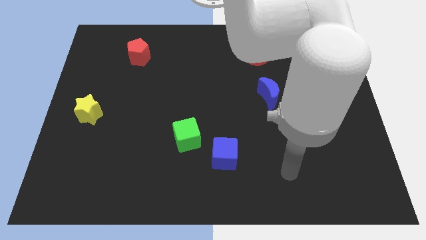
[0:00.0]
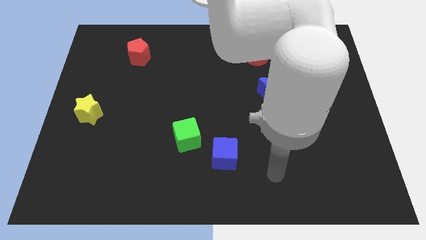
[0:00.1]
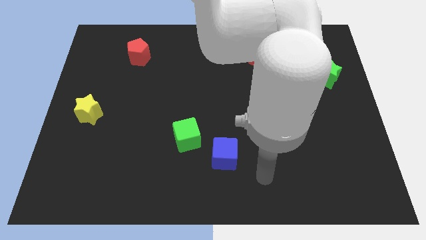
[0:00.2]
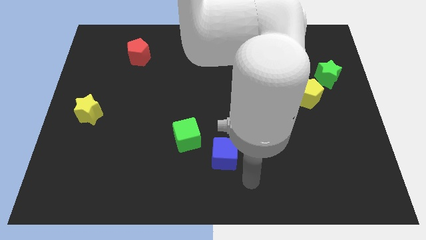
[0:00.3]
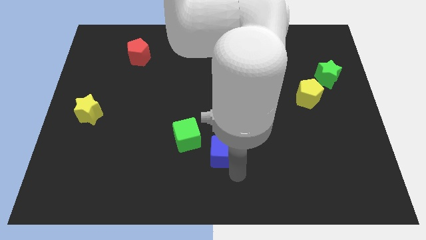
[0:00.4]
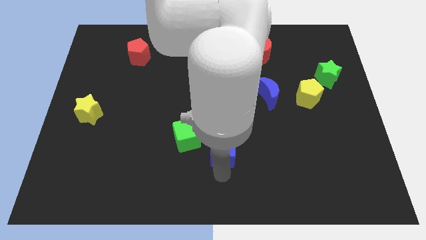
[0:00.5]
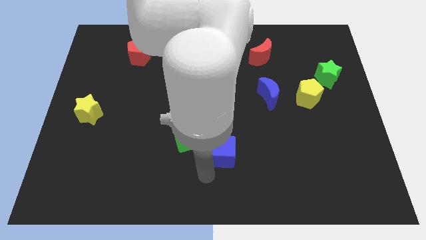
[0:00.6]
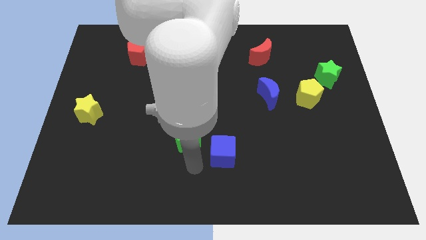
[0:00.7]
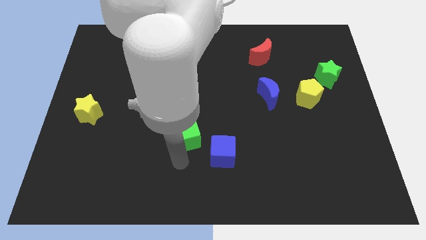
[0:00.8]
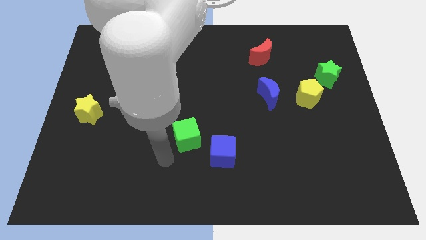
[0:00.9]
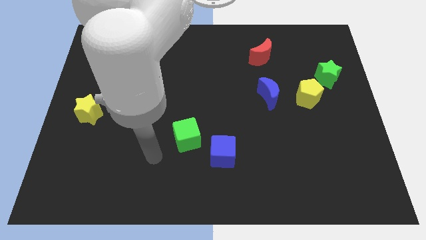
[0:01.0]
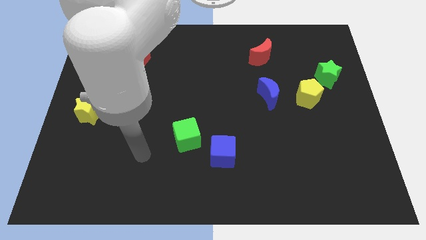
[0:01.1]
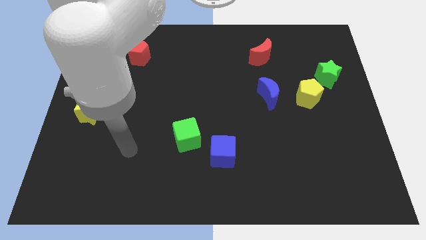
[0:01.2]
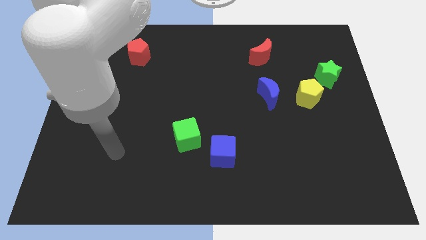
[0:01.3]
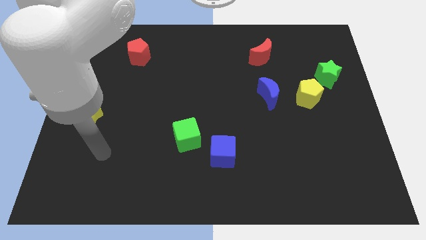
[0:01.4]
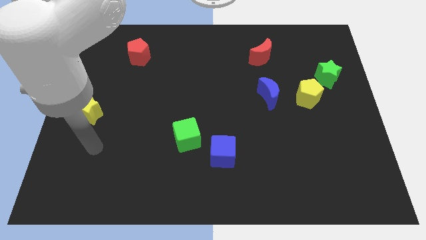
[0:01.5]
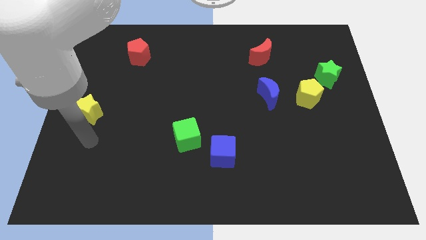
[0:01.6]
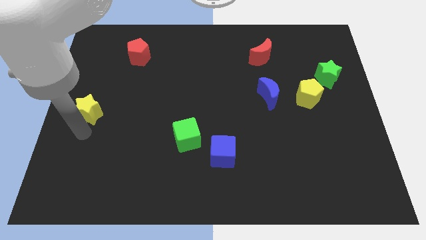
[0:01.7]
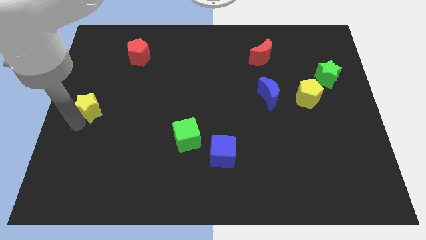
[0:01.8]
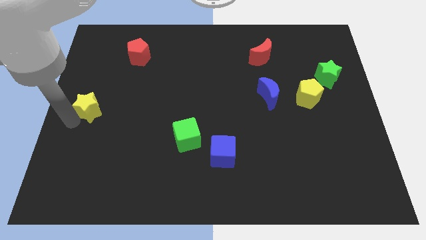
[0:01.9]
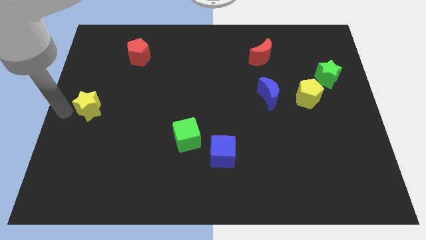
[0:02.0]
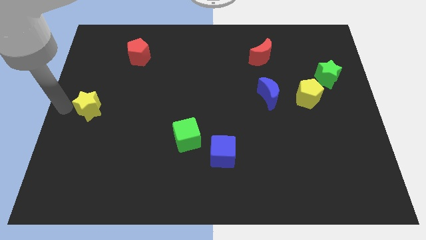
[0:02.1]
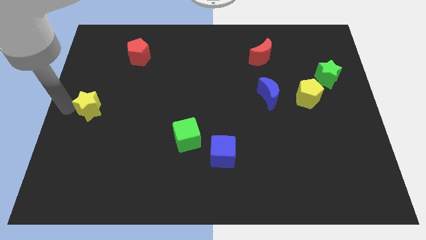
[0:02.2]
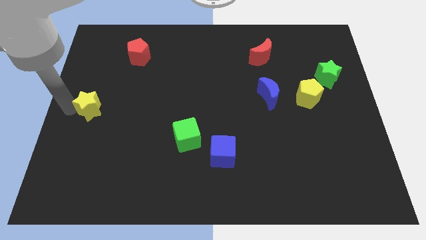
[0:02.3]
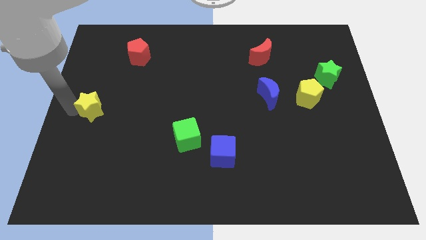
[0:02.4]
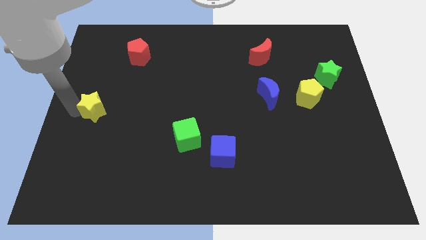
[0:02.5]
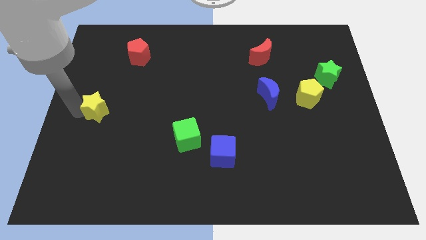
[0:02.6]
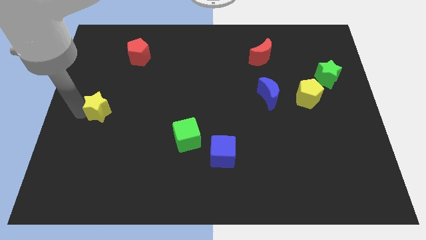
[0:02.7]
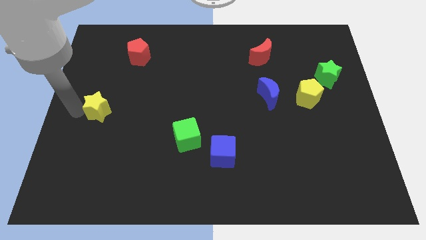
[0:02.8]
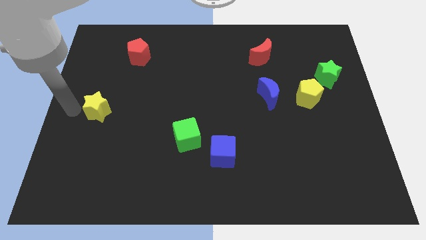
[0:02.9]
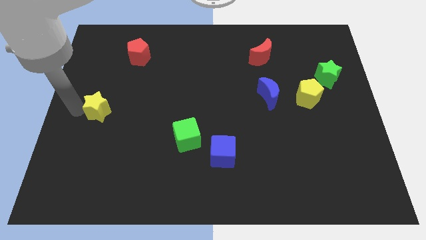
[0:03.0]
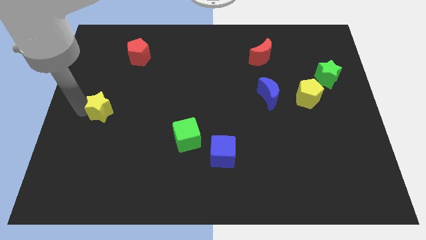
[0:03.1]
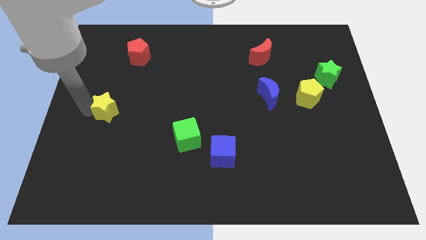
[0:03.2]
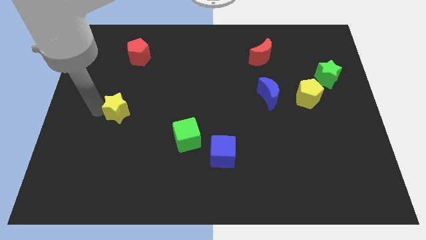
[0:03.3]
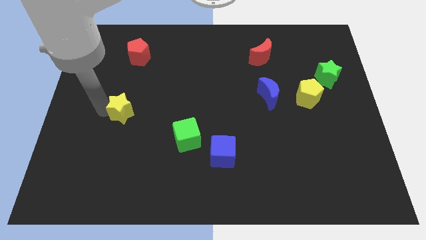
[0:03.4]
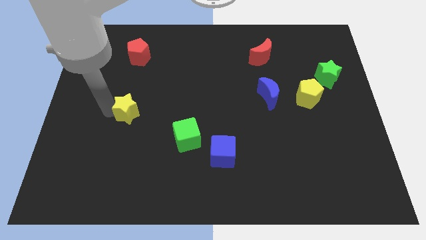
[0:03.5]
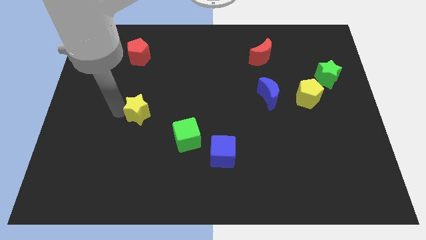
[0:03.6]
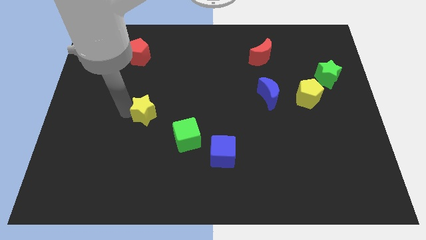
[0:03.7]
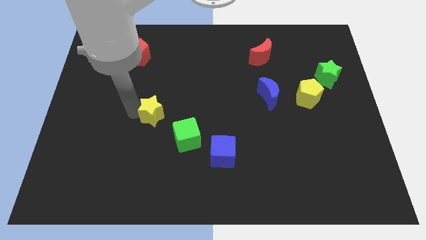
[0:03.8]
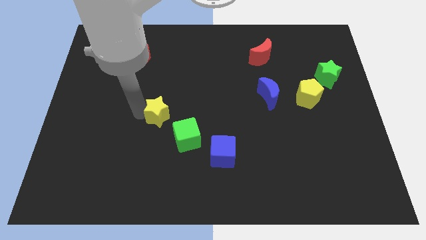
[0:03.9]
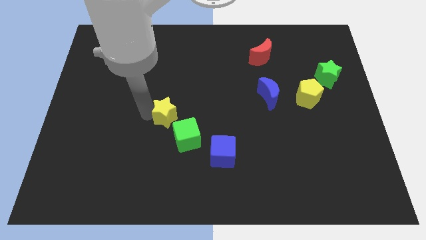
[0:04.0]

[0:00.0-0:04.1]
move the yellow star to the center

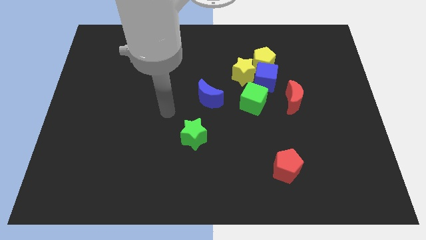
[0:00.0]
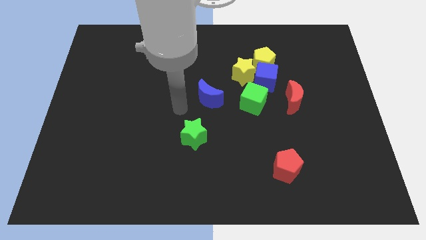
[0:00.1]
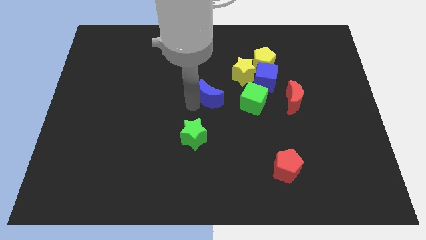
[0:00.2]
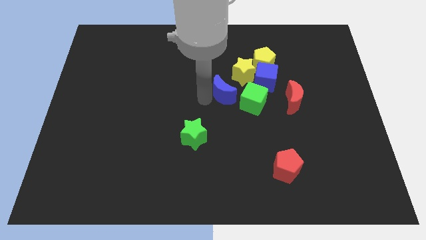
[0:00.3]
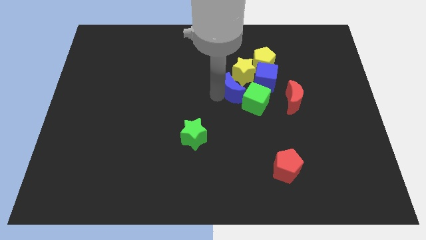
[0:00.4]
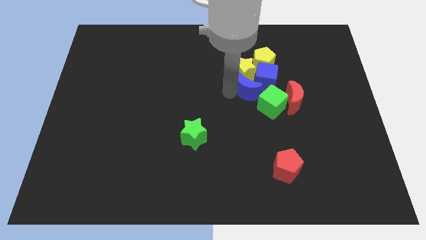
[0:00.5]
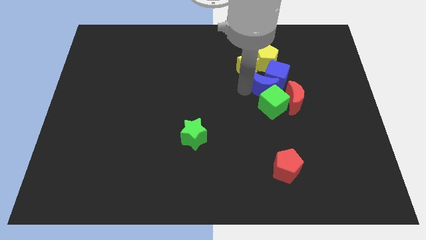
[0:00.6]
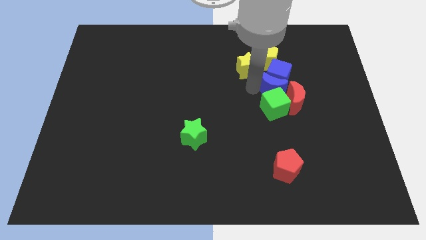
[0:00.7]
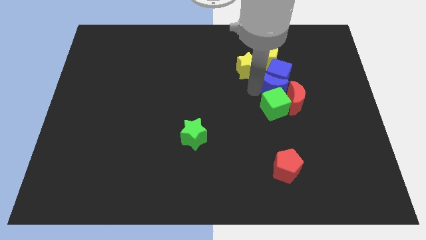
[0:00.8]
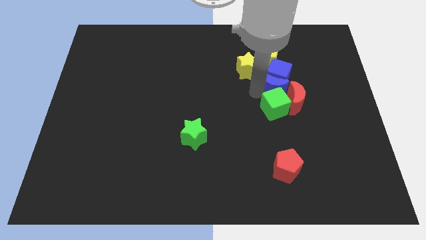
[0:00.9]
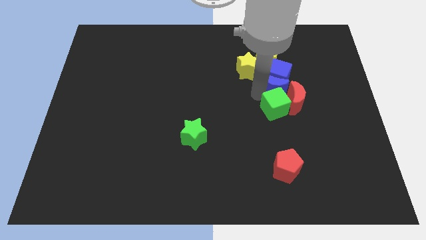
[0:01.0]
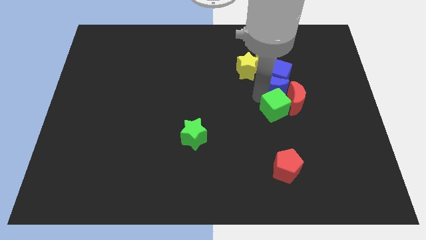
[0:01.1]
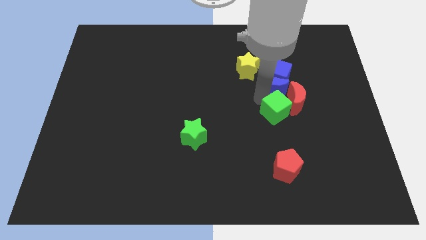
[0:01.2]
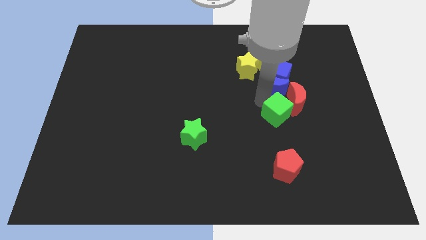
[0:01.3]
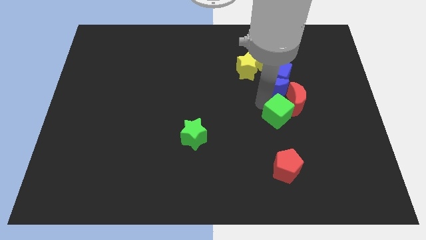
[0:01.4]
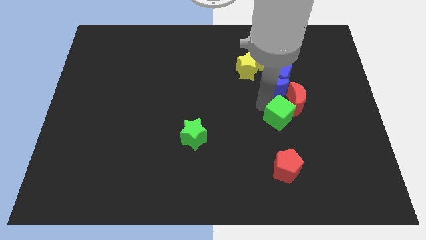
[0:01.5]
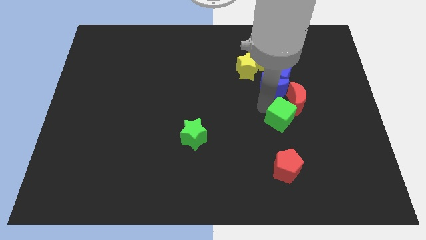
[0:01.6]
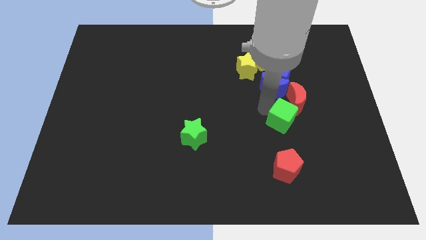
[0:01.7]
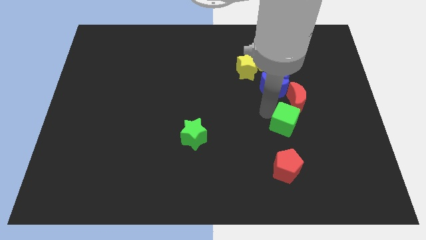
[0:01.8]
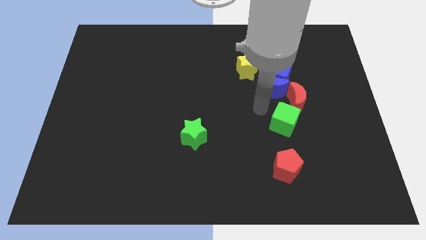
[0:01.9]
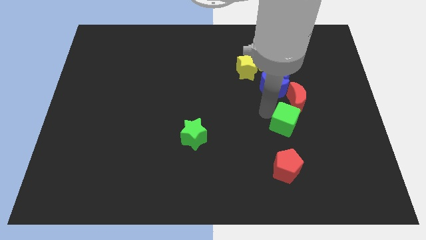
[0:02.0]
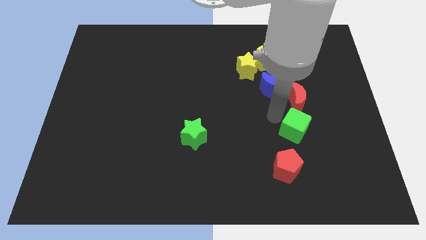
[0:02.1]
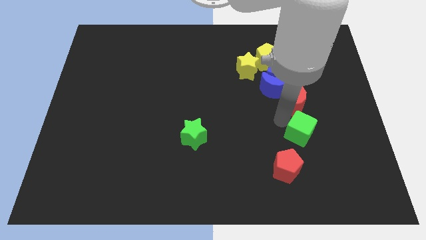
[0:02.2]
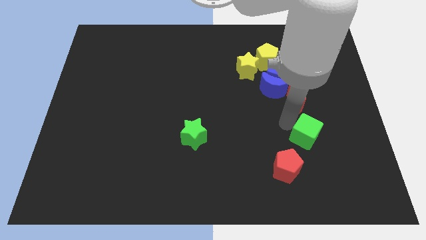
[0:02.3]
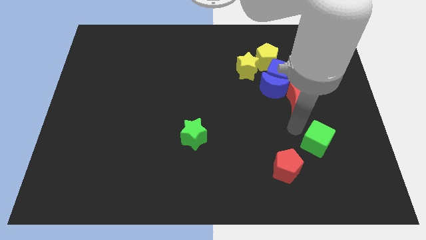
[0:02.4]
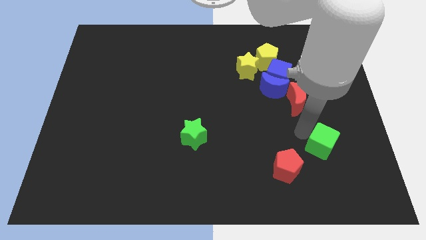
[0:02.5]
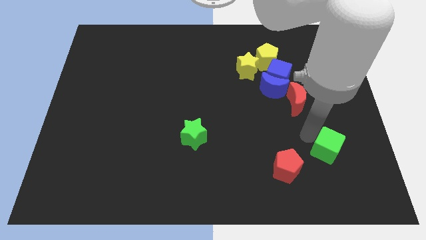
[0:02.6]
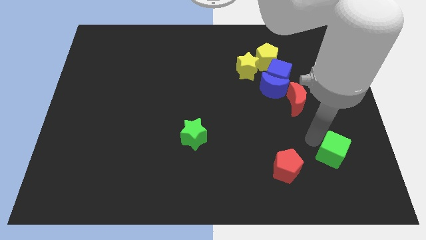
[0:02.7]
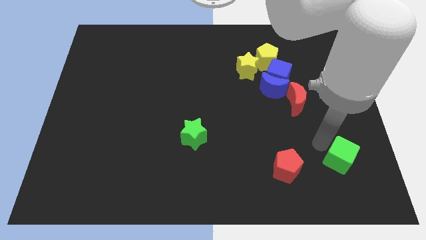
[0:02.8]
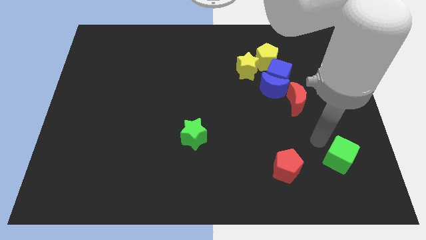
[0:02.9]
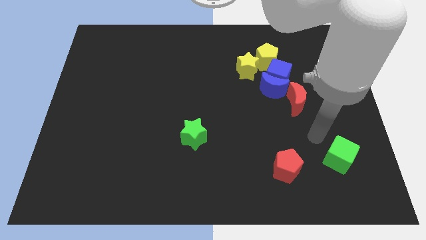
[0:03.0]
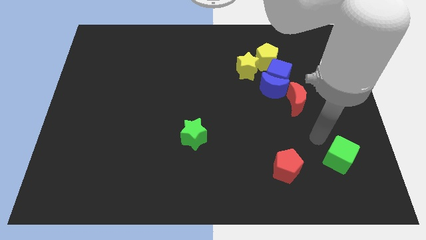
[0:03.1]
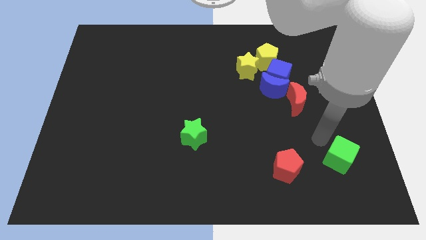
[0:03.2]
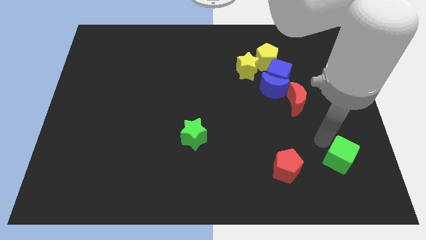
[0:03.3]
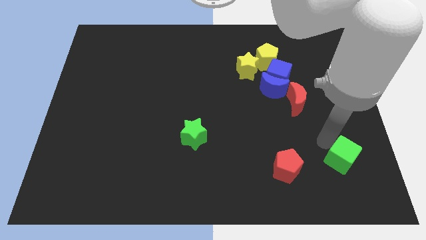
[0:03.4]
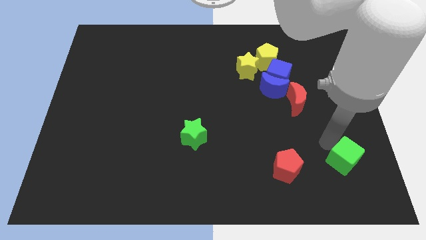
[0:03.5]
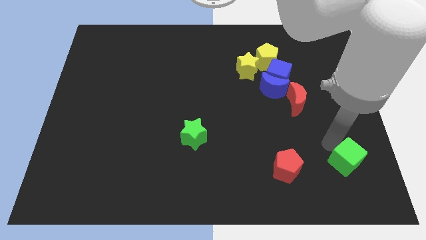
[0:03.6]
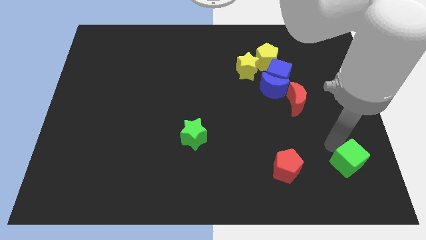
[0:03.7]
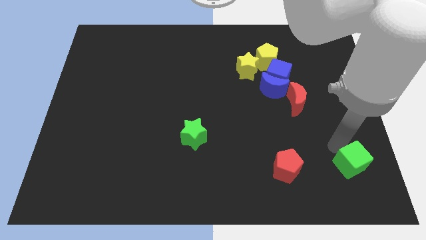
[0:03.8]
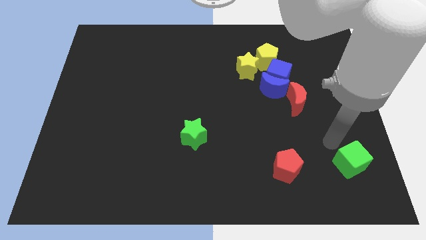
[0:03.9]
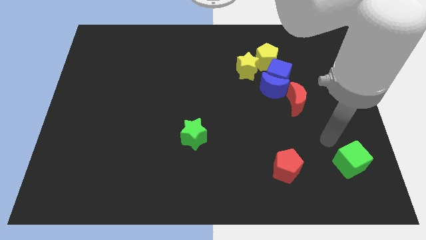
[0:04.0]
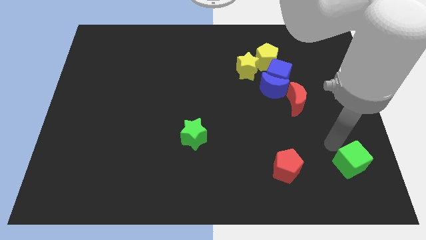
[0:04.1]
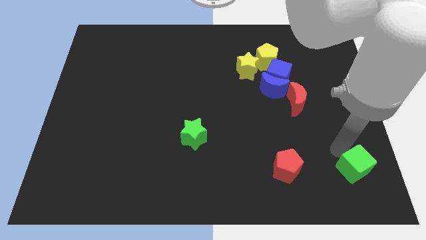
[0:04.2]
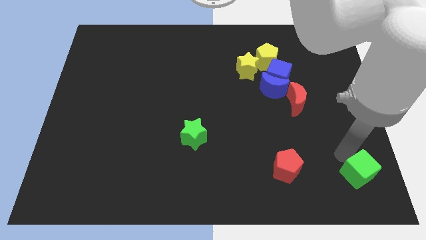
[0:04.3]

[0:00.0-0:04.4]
push the green cube to the lower right corner
